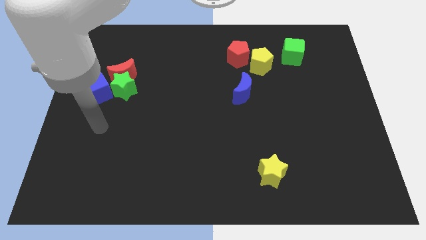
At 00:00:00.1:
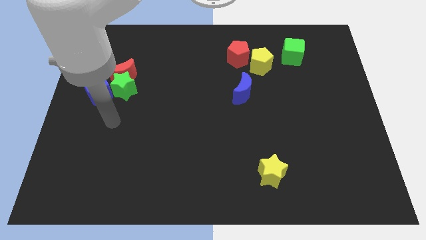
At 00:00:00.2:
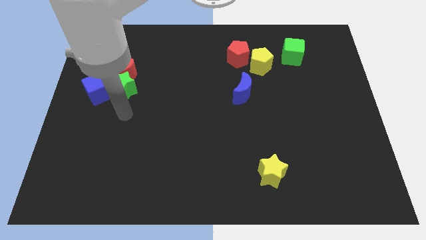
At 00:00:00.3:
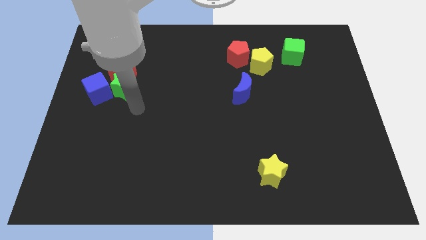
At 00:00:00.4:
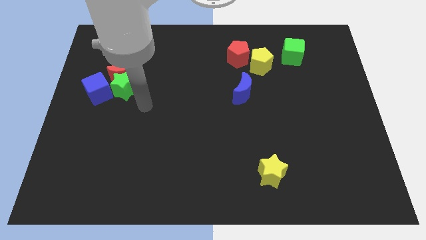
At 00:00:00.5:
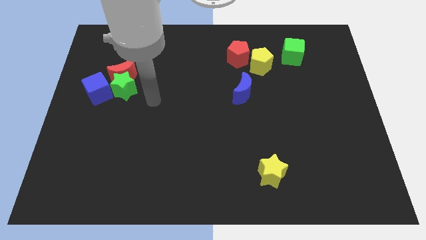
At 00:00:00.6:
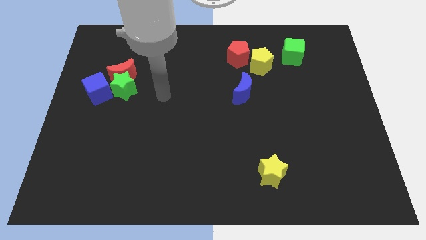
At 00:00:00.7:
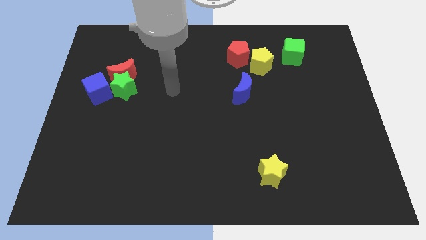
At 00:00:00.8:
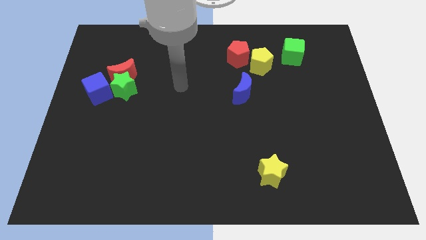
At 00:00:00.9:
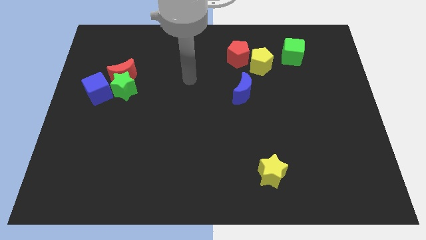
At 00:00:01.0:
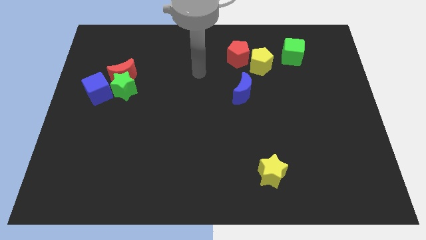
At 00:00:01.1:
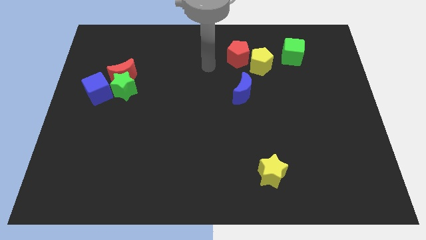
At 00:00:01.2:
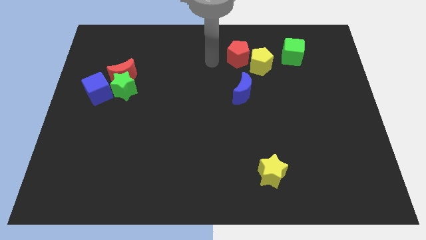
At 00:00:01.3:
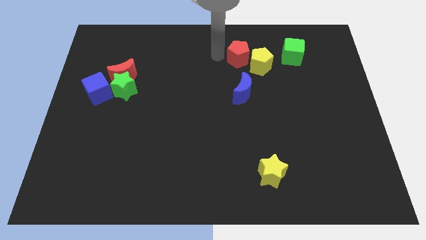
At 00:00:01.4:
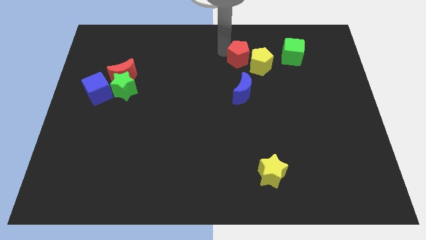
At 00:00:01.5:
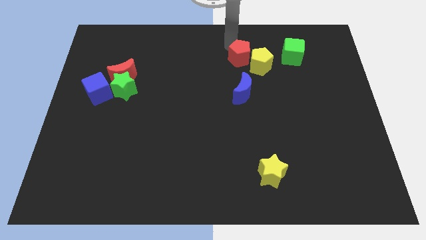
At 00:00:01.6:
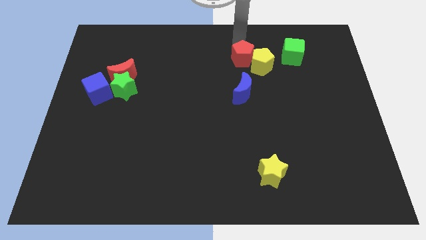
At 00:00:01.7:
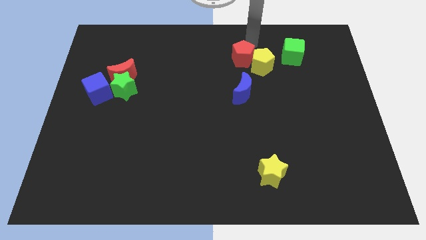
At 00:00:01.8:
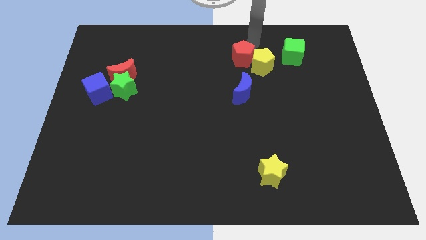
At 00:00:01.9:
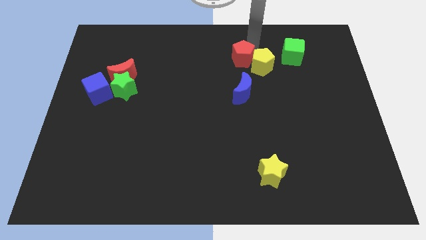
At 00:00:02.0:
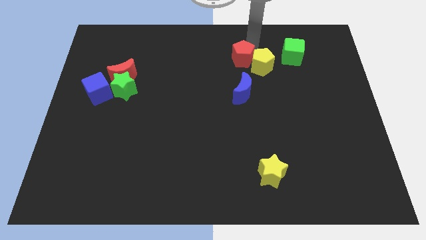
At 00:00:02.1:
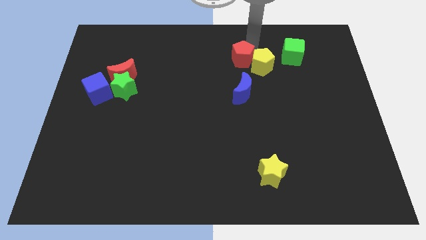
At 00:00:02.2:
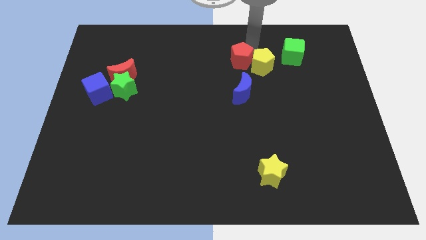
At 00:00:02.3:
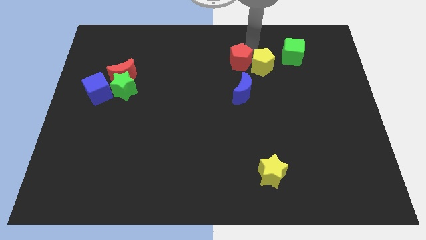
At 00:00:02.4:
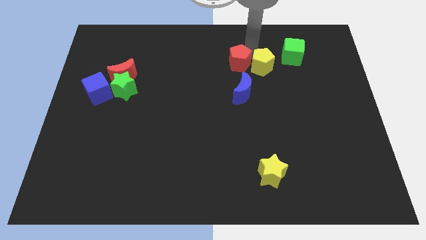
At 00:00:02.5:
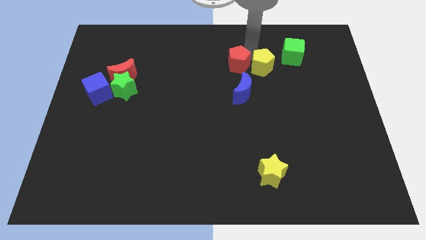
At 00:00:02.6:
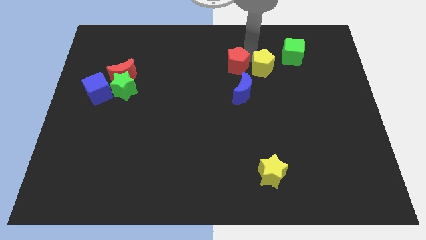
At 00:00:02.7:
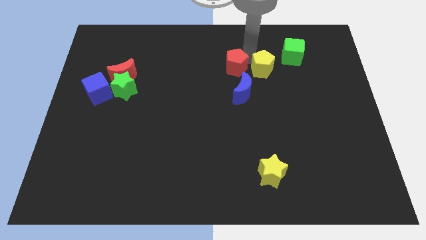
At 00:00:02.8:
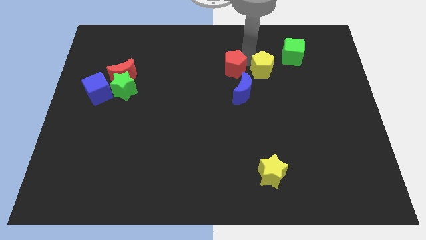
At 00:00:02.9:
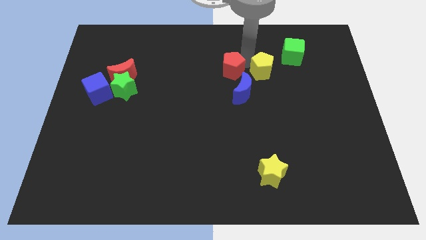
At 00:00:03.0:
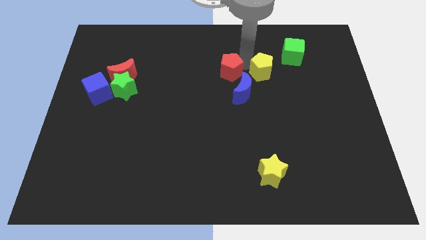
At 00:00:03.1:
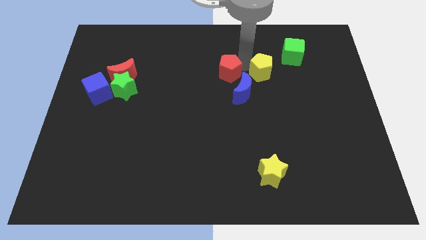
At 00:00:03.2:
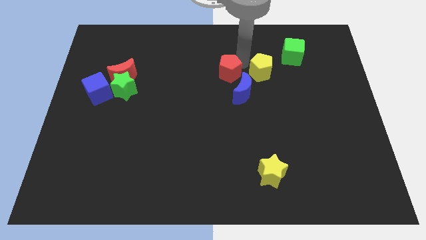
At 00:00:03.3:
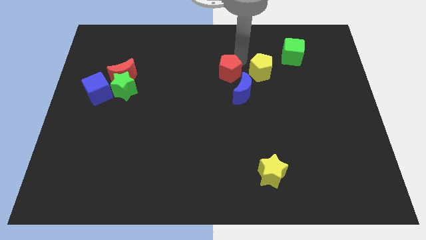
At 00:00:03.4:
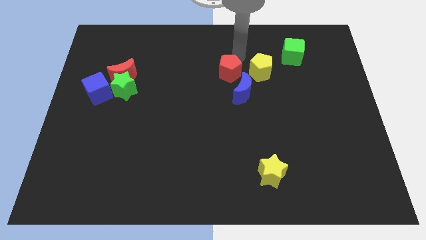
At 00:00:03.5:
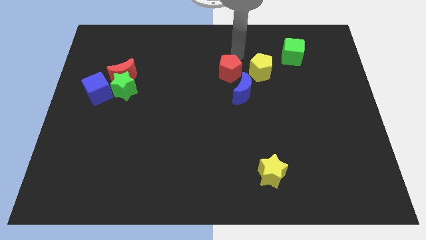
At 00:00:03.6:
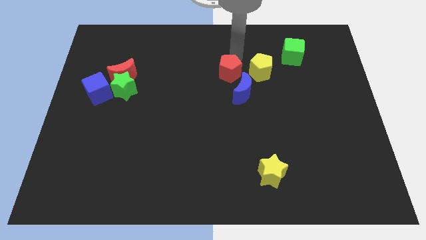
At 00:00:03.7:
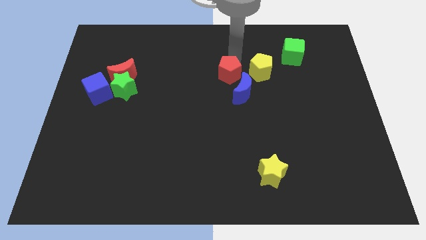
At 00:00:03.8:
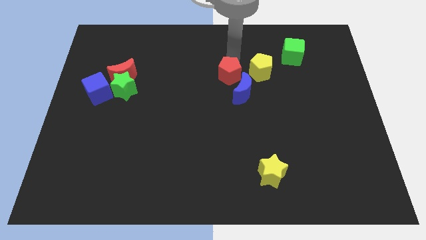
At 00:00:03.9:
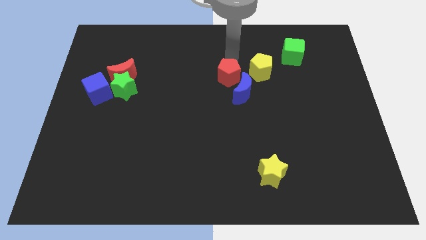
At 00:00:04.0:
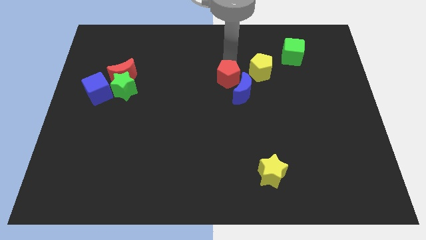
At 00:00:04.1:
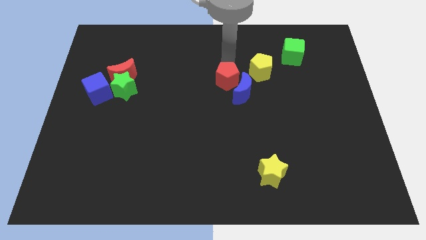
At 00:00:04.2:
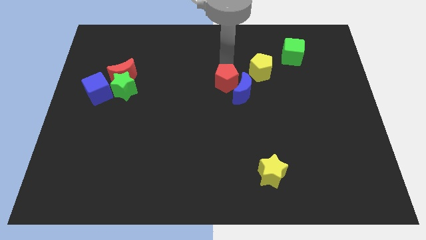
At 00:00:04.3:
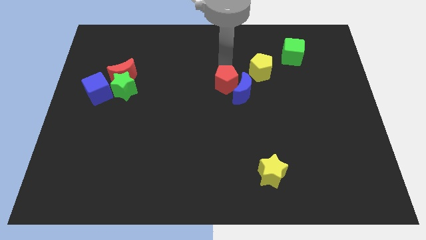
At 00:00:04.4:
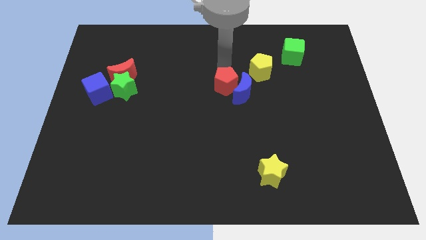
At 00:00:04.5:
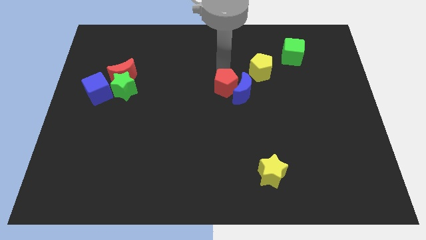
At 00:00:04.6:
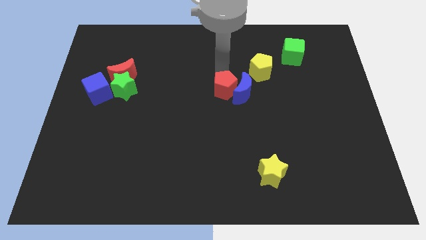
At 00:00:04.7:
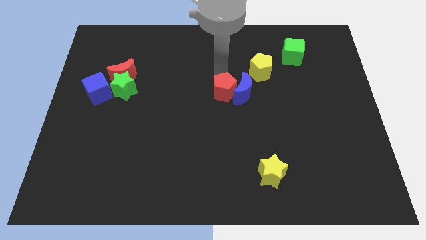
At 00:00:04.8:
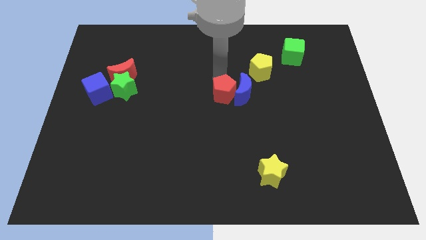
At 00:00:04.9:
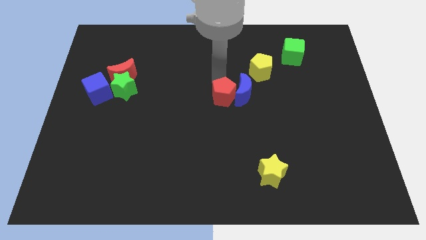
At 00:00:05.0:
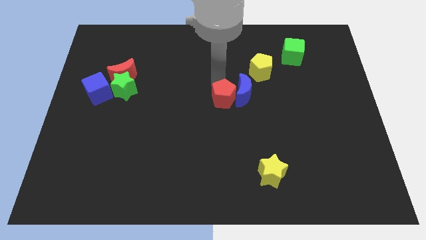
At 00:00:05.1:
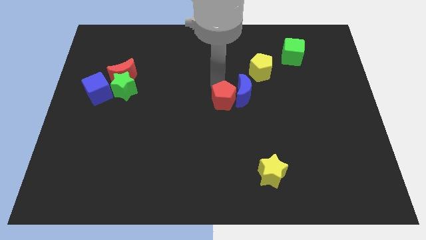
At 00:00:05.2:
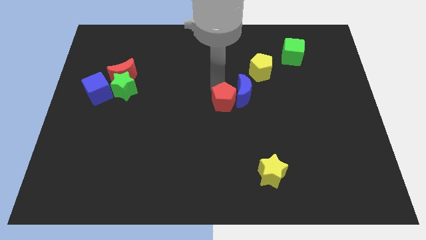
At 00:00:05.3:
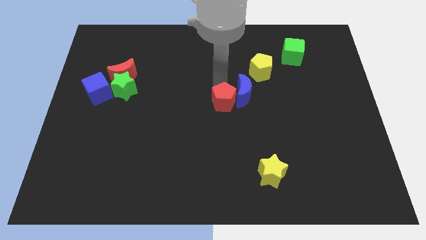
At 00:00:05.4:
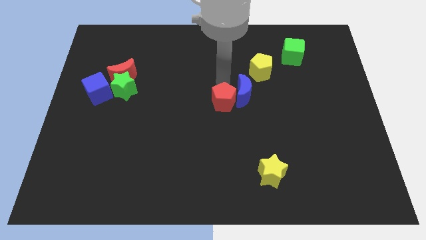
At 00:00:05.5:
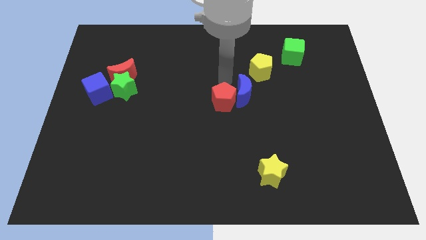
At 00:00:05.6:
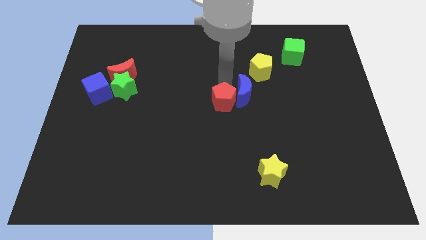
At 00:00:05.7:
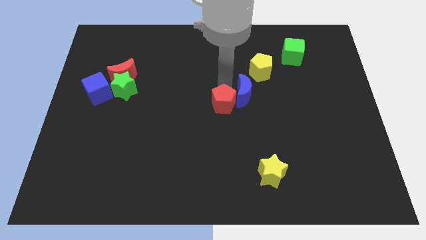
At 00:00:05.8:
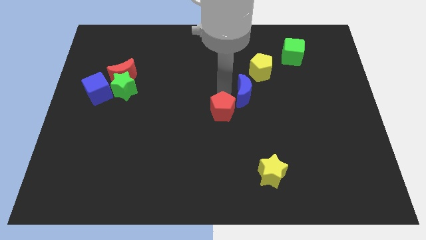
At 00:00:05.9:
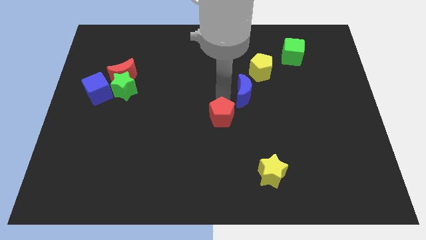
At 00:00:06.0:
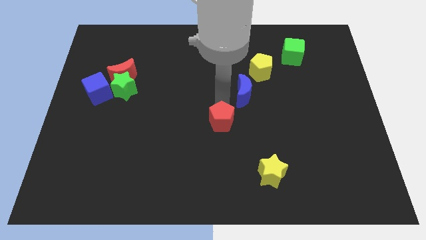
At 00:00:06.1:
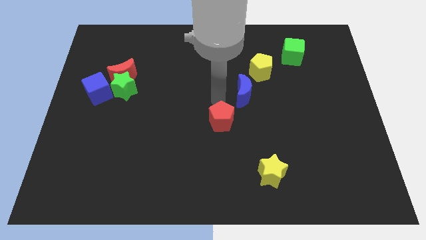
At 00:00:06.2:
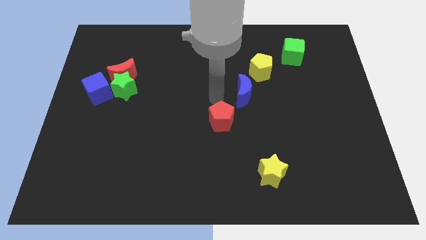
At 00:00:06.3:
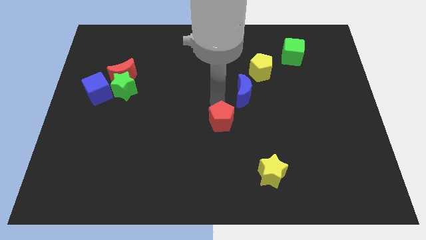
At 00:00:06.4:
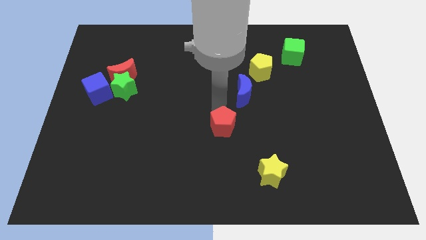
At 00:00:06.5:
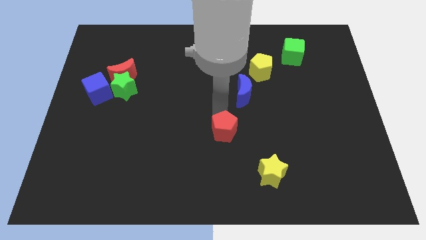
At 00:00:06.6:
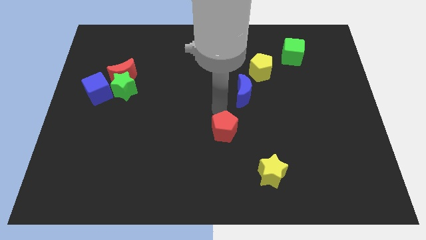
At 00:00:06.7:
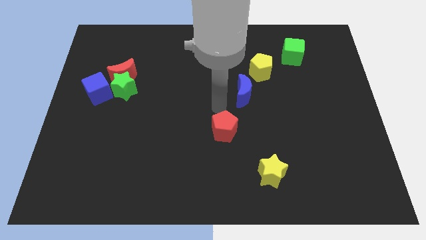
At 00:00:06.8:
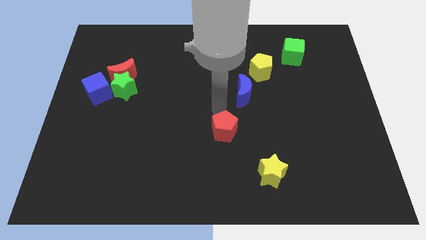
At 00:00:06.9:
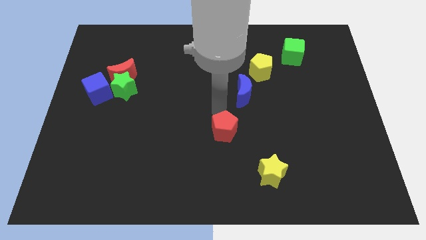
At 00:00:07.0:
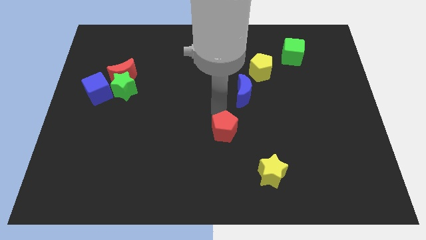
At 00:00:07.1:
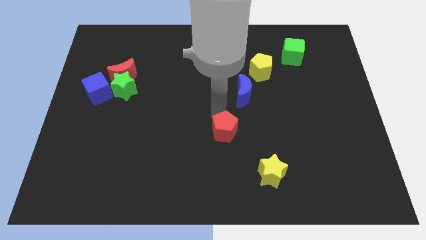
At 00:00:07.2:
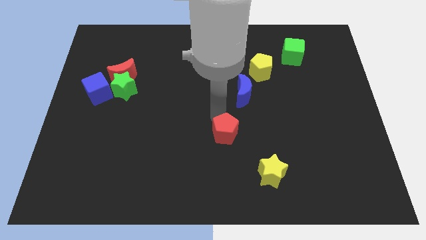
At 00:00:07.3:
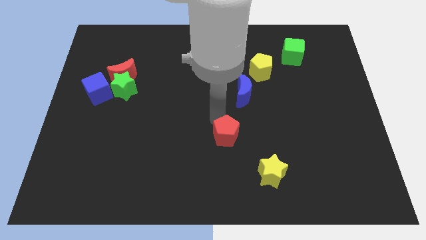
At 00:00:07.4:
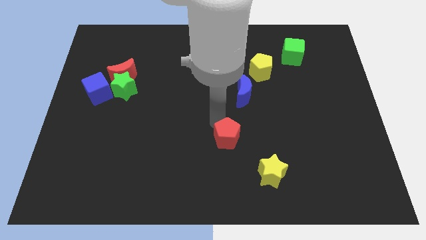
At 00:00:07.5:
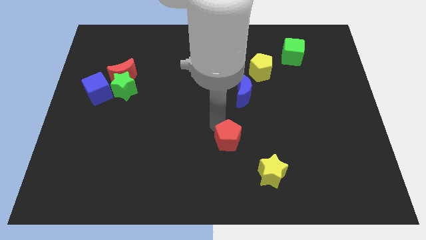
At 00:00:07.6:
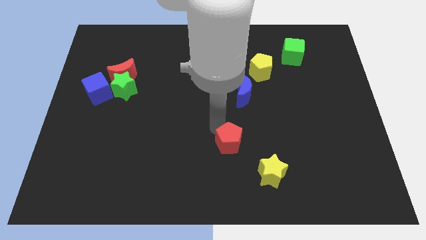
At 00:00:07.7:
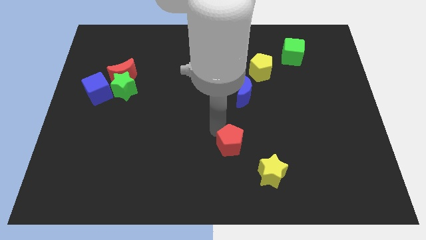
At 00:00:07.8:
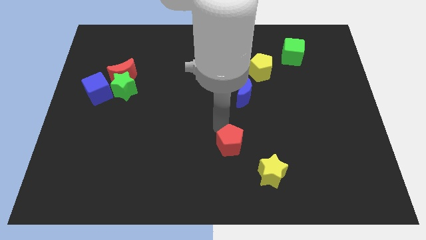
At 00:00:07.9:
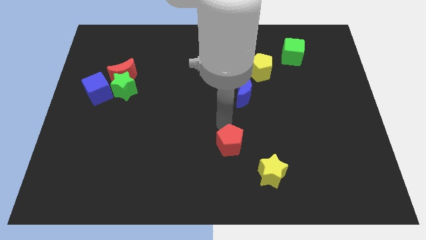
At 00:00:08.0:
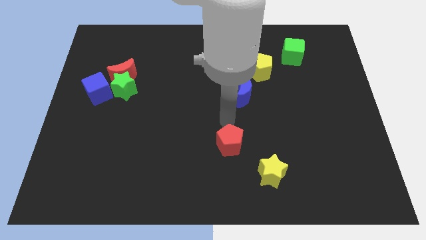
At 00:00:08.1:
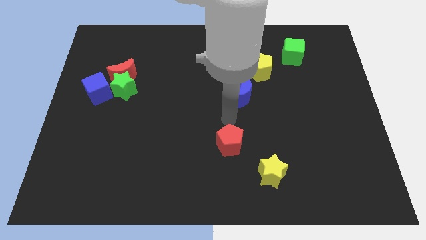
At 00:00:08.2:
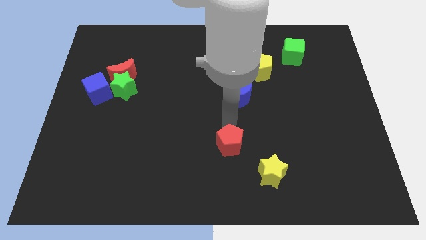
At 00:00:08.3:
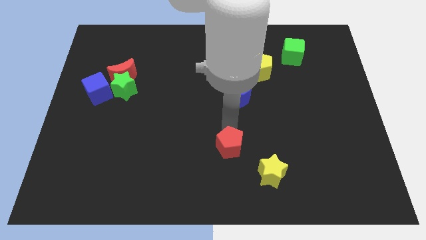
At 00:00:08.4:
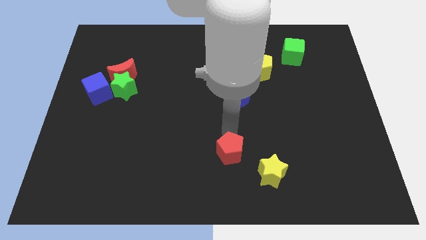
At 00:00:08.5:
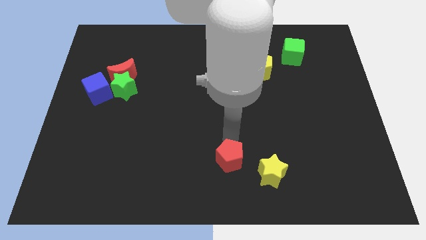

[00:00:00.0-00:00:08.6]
move the red pentagon to the bottom side
